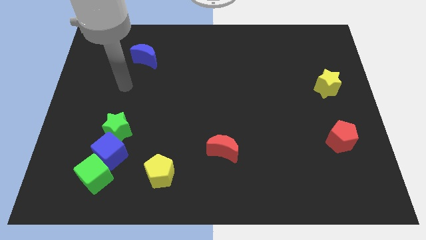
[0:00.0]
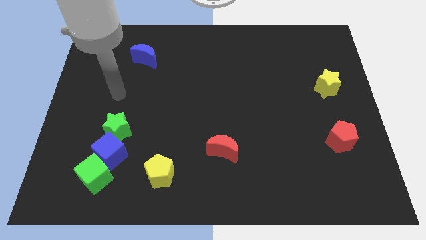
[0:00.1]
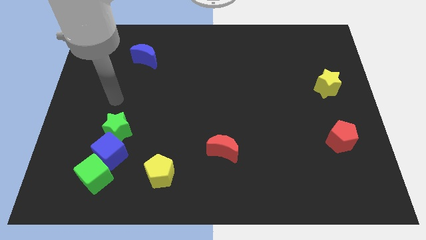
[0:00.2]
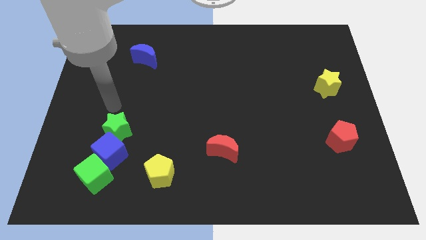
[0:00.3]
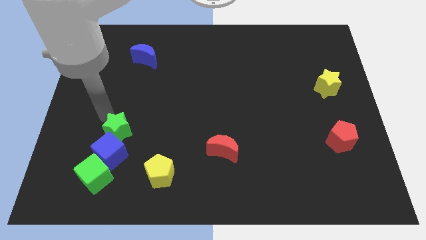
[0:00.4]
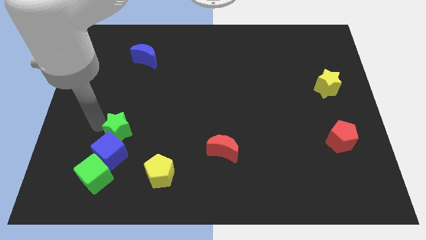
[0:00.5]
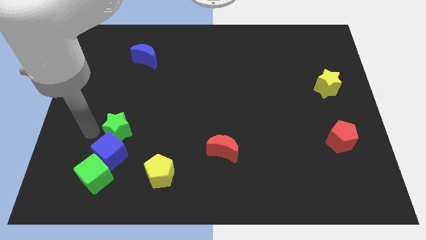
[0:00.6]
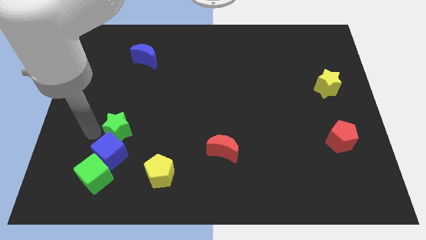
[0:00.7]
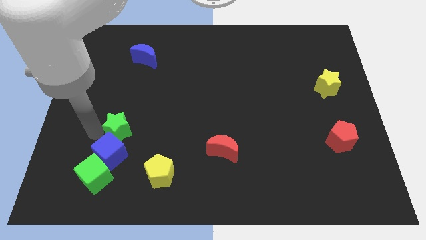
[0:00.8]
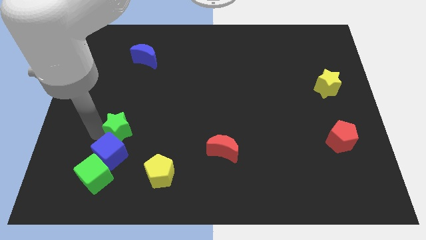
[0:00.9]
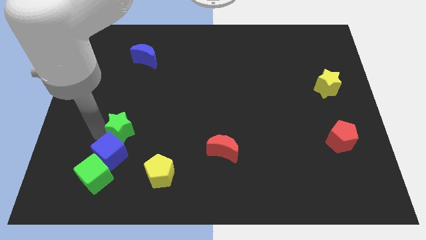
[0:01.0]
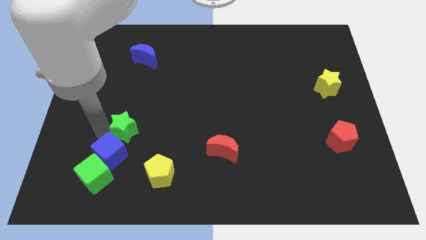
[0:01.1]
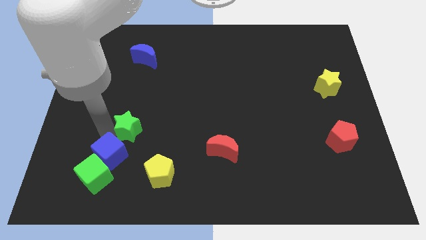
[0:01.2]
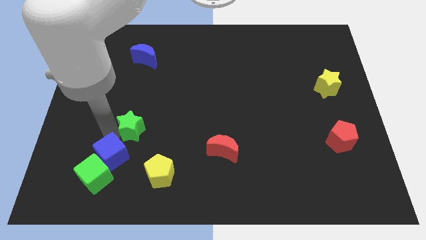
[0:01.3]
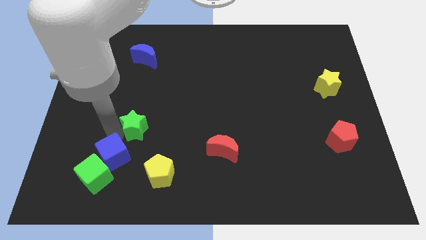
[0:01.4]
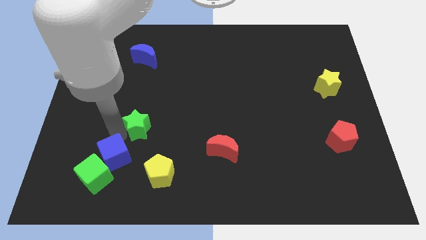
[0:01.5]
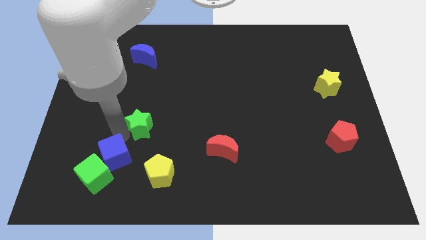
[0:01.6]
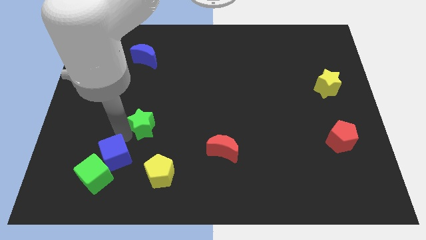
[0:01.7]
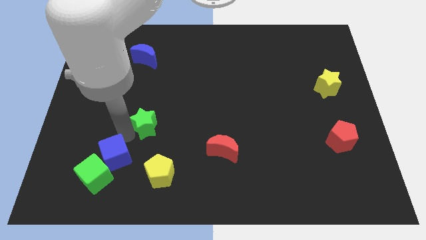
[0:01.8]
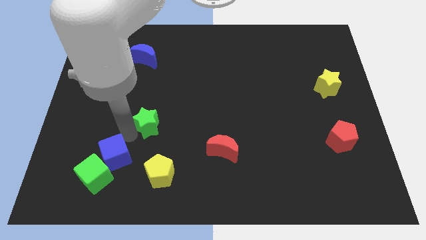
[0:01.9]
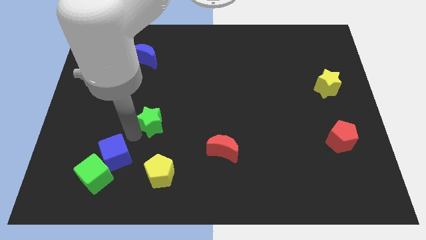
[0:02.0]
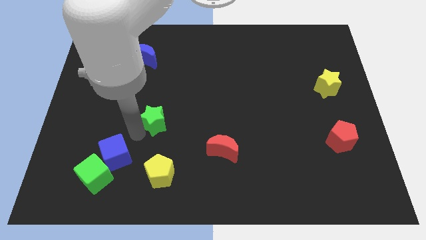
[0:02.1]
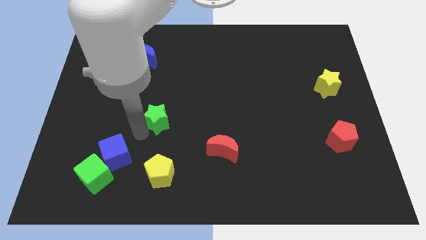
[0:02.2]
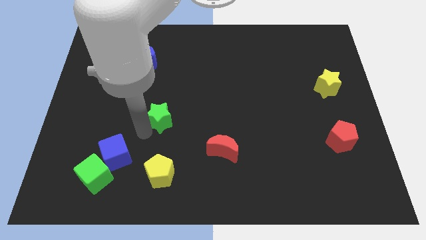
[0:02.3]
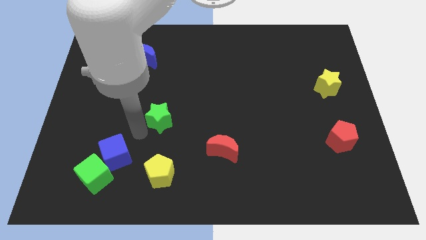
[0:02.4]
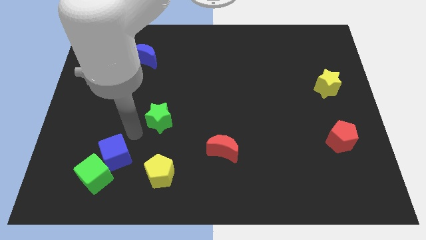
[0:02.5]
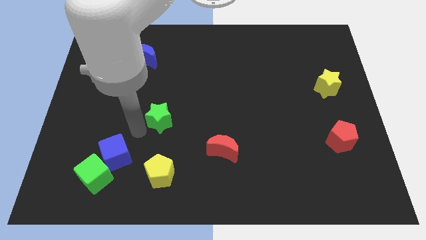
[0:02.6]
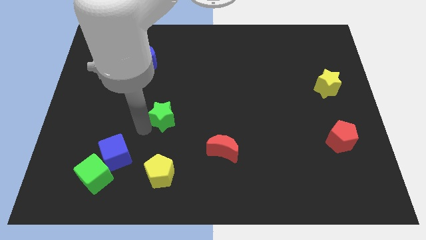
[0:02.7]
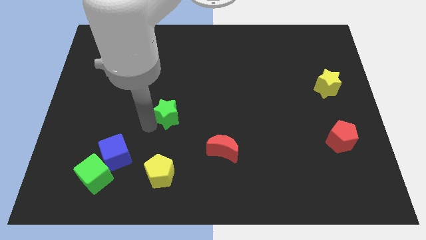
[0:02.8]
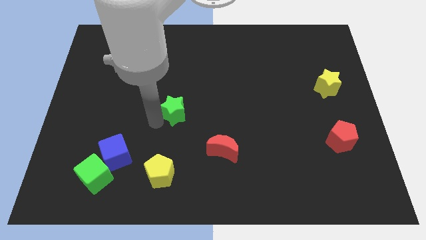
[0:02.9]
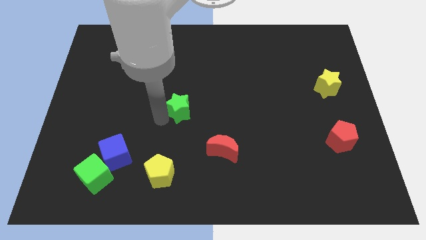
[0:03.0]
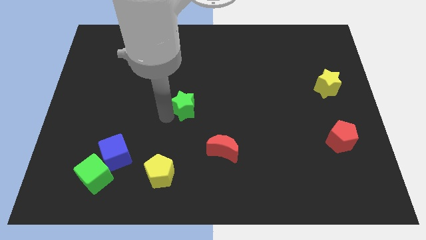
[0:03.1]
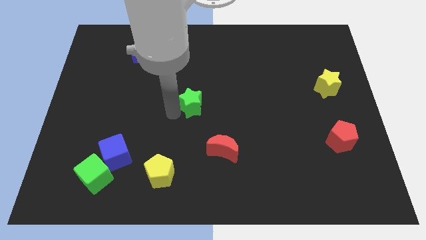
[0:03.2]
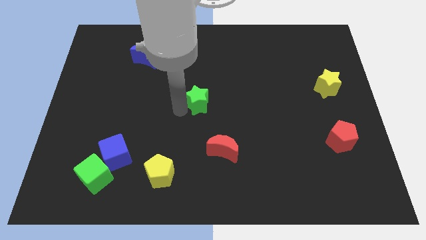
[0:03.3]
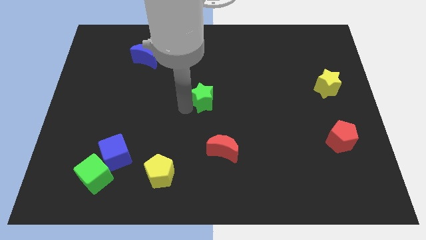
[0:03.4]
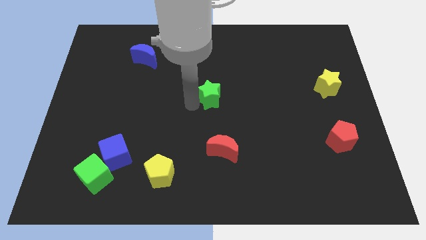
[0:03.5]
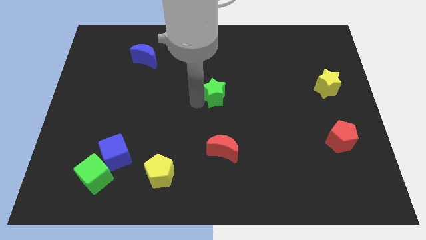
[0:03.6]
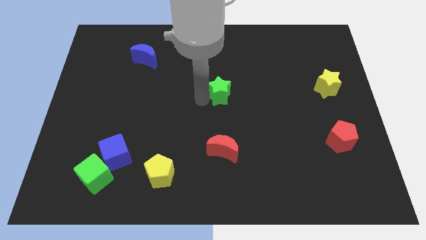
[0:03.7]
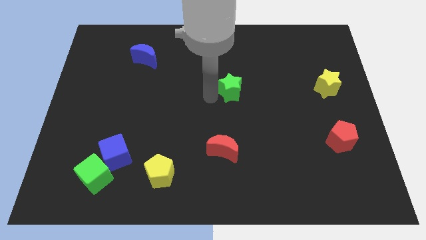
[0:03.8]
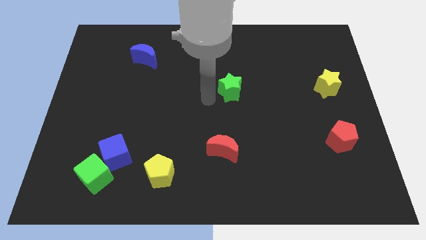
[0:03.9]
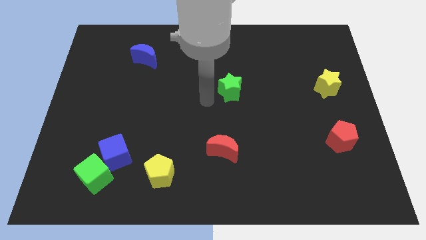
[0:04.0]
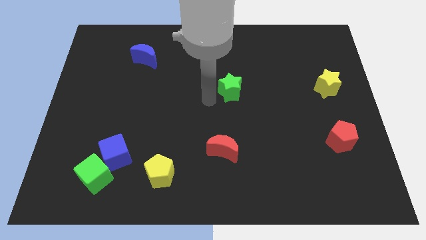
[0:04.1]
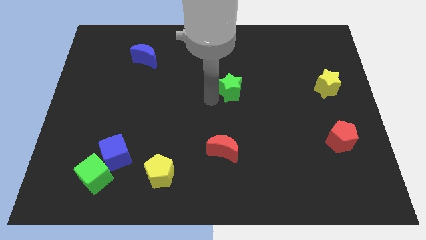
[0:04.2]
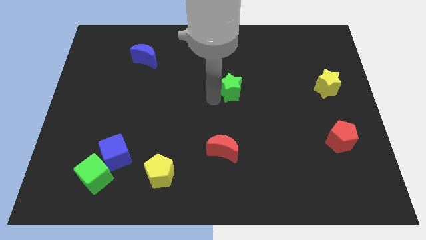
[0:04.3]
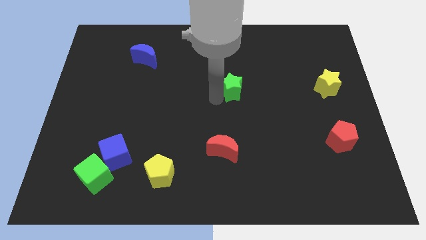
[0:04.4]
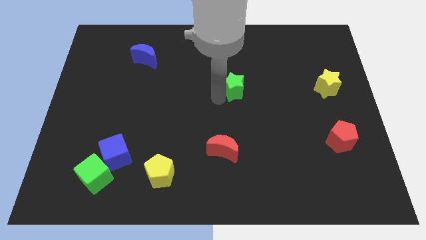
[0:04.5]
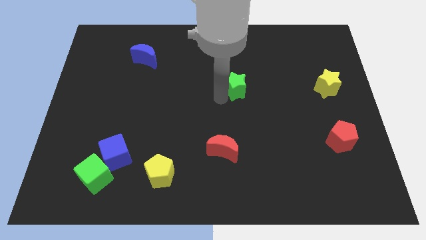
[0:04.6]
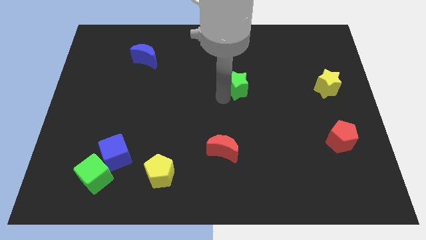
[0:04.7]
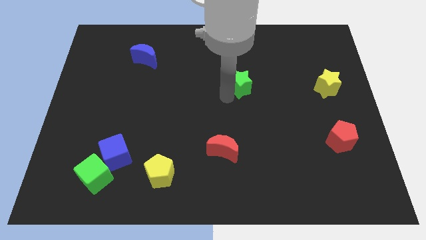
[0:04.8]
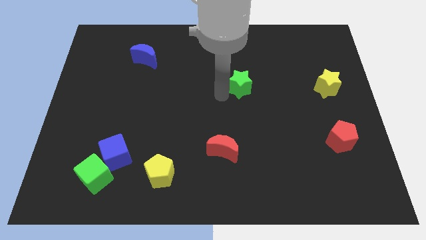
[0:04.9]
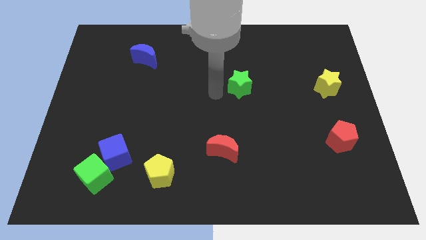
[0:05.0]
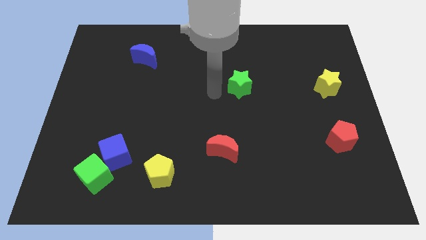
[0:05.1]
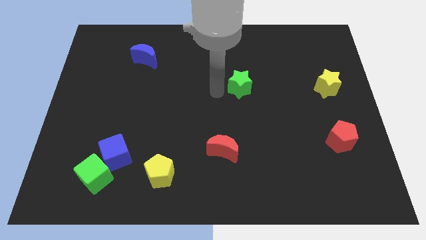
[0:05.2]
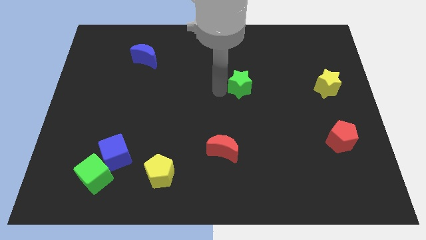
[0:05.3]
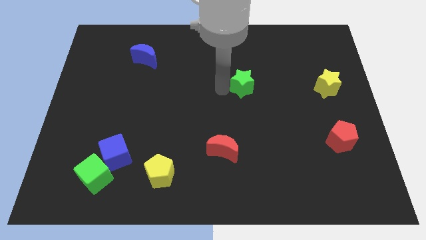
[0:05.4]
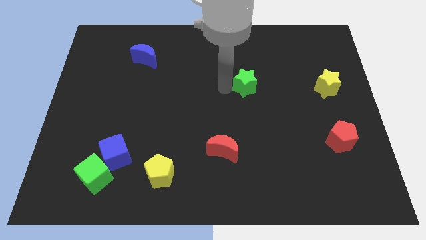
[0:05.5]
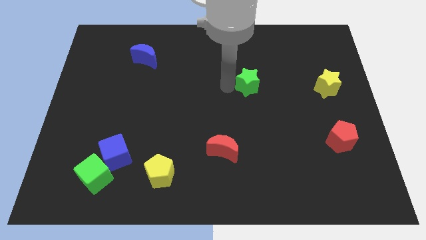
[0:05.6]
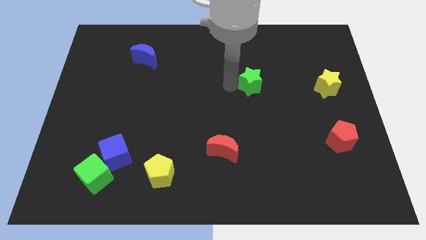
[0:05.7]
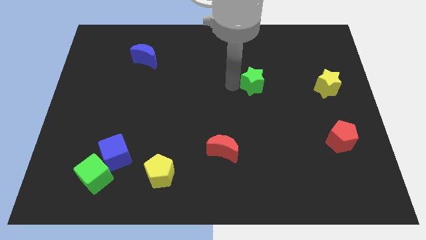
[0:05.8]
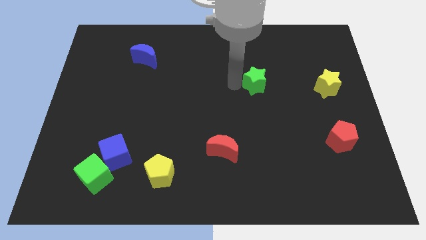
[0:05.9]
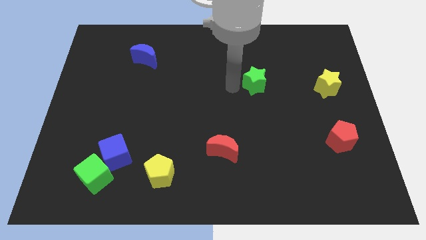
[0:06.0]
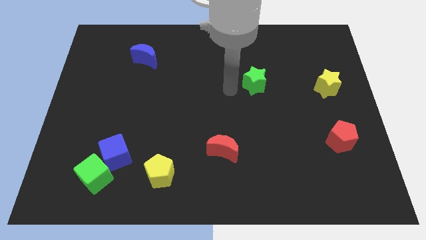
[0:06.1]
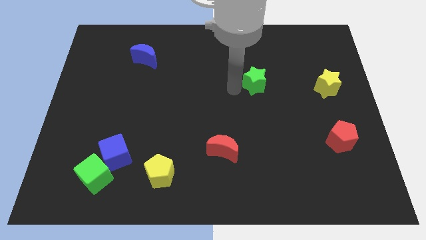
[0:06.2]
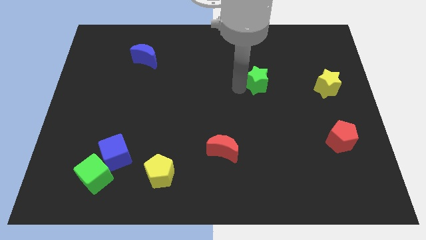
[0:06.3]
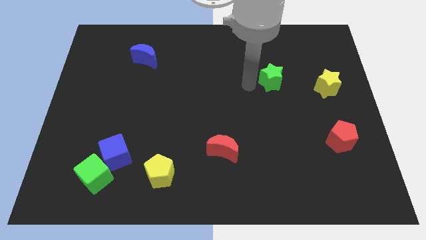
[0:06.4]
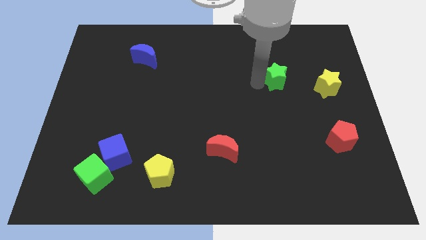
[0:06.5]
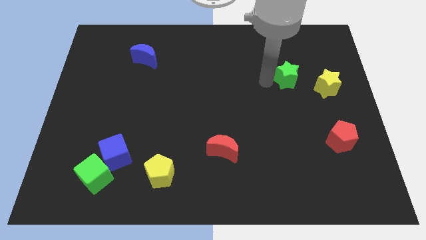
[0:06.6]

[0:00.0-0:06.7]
slide the green star to the top left side of the yellow star
